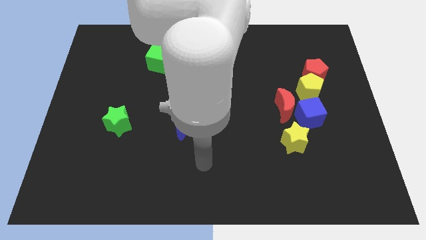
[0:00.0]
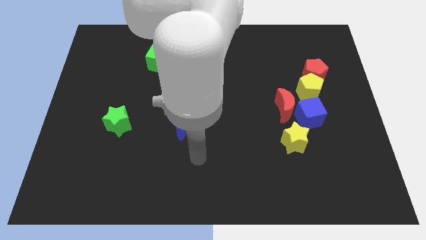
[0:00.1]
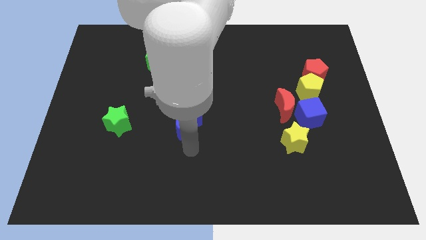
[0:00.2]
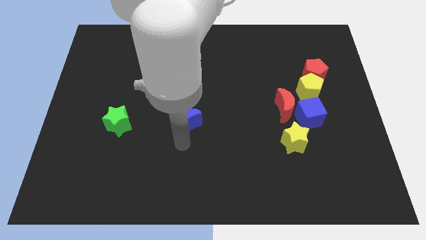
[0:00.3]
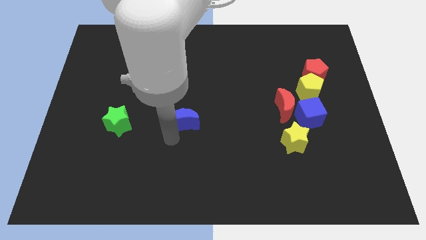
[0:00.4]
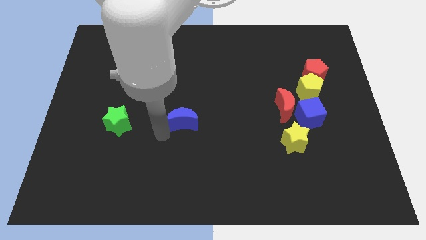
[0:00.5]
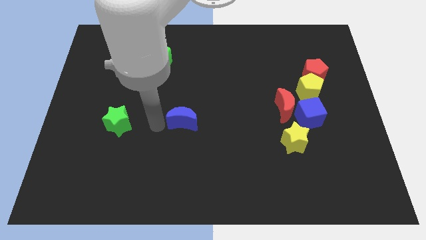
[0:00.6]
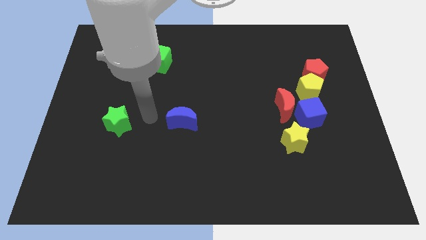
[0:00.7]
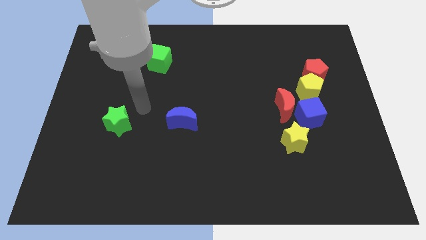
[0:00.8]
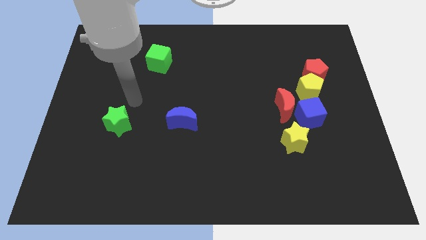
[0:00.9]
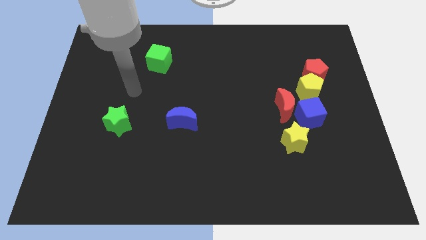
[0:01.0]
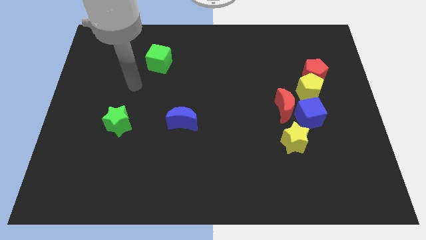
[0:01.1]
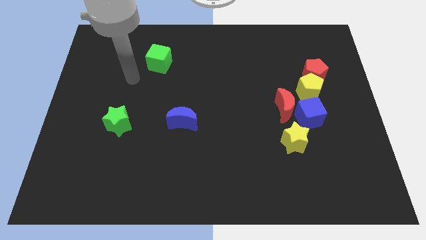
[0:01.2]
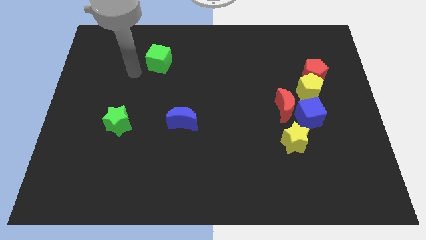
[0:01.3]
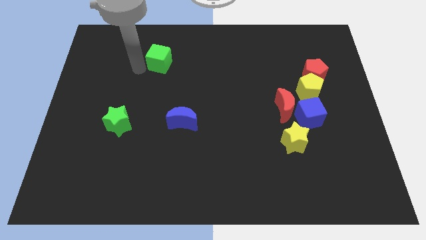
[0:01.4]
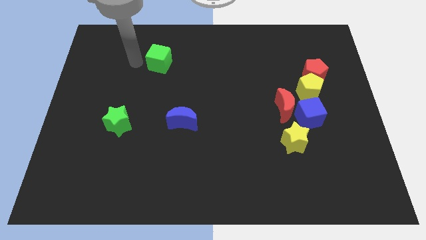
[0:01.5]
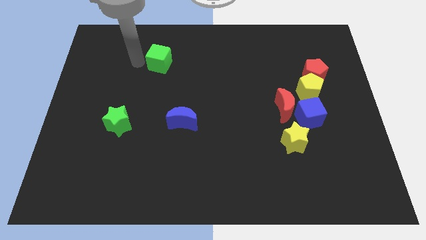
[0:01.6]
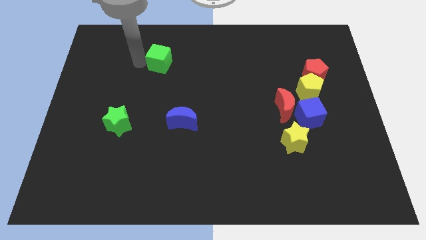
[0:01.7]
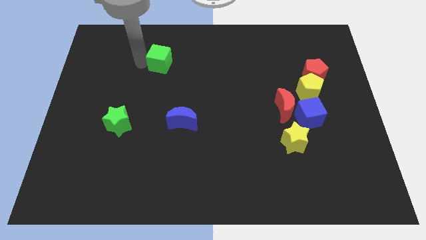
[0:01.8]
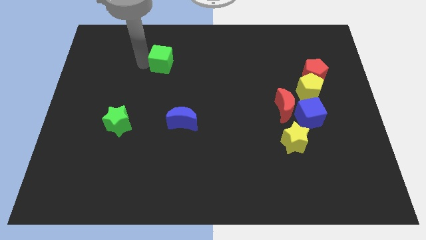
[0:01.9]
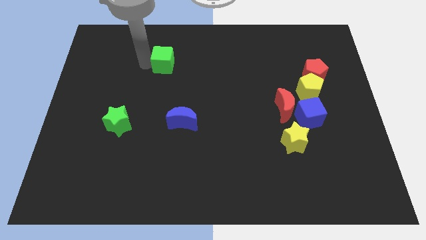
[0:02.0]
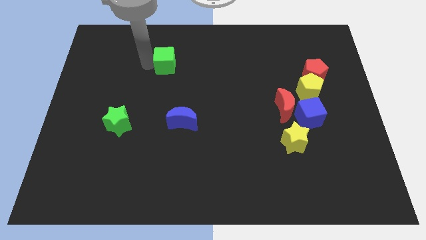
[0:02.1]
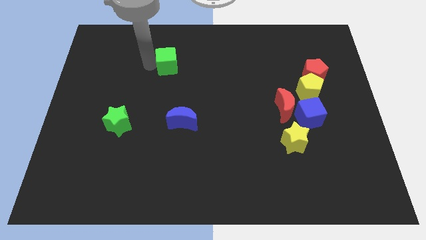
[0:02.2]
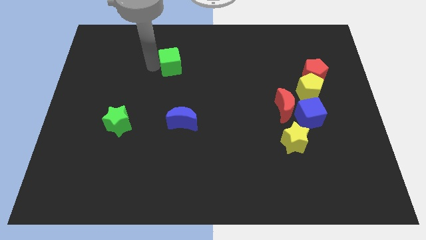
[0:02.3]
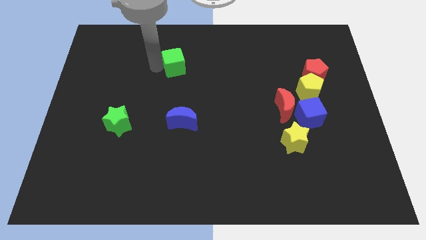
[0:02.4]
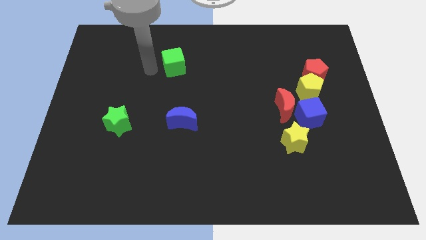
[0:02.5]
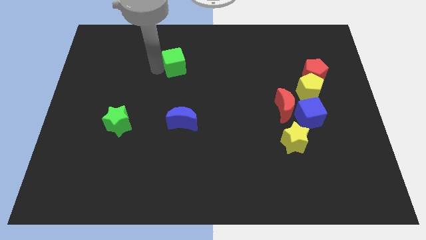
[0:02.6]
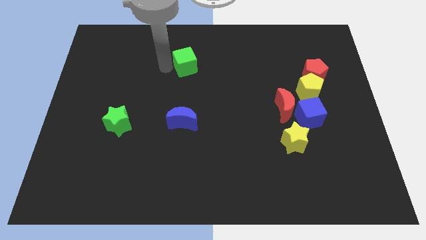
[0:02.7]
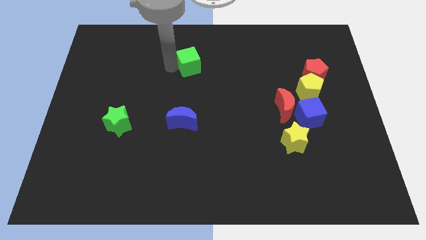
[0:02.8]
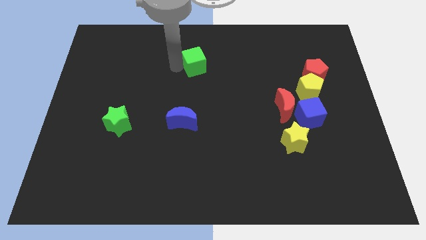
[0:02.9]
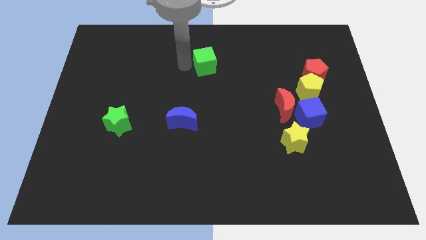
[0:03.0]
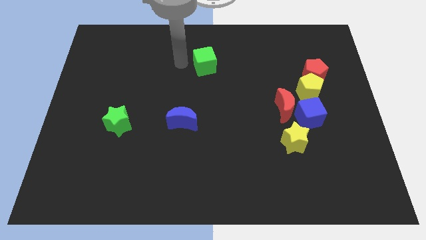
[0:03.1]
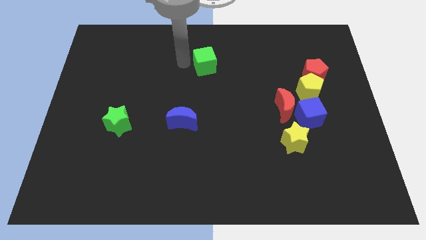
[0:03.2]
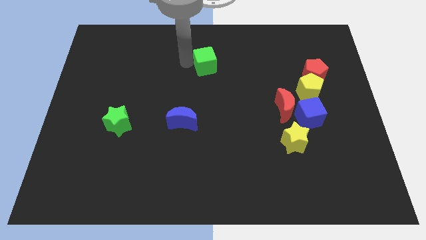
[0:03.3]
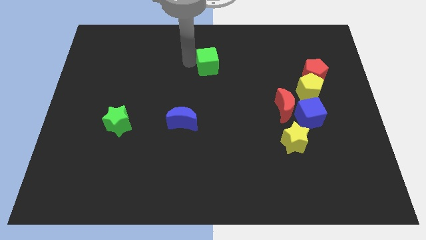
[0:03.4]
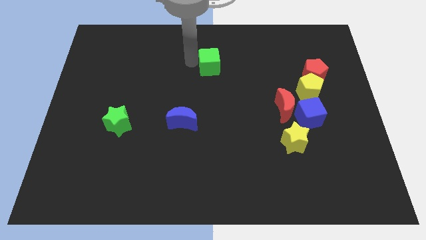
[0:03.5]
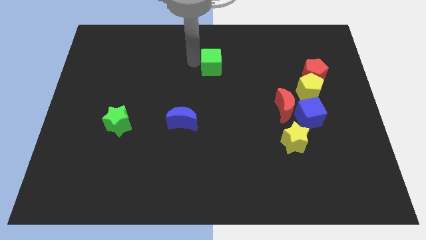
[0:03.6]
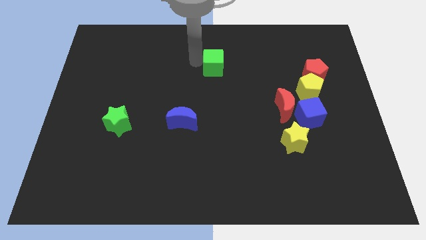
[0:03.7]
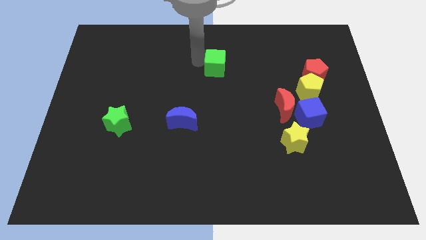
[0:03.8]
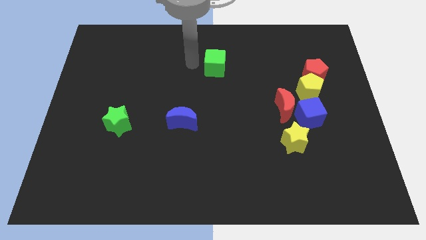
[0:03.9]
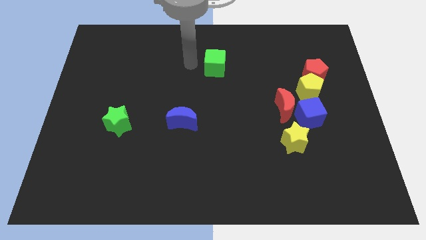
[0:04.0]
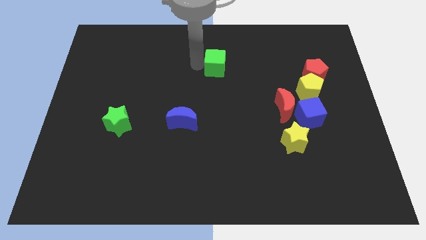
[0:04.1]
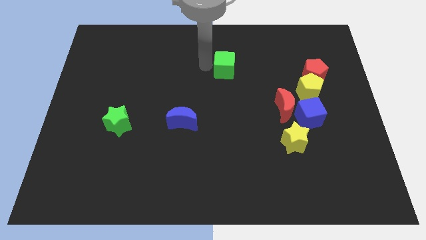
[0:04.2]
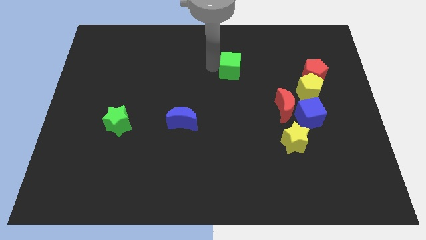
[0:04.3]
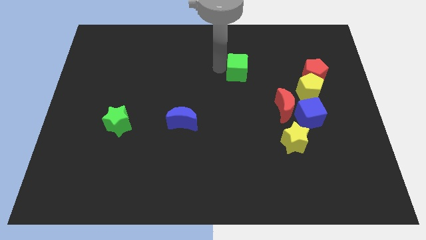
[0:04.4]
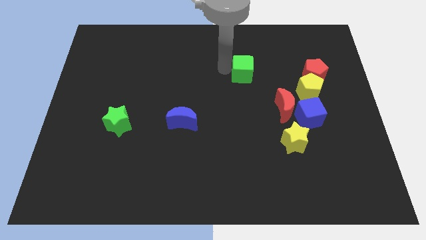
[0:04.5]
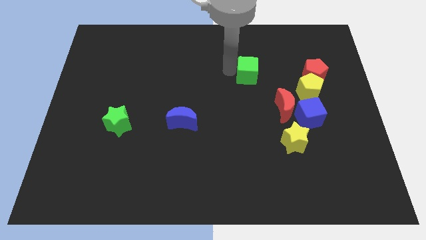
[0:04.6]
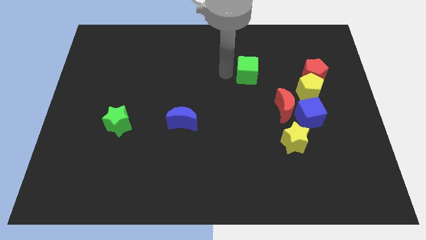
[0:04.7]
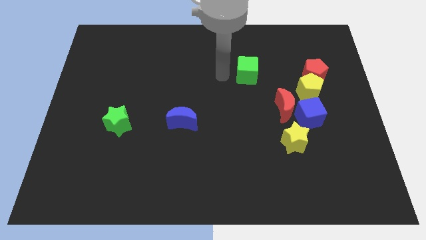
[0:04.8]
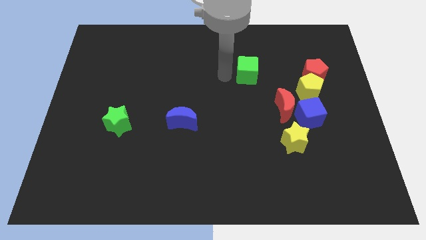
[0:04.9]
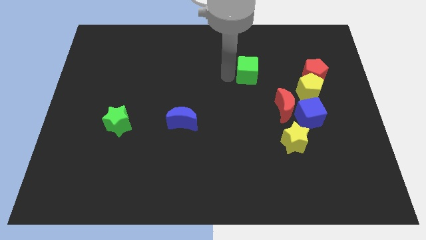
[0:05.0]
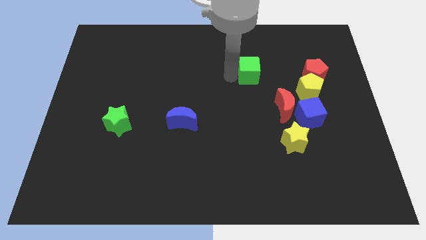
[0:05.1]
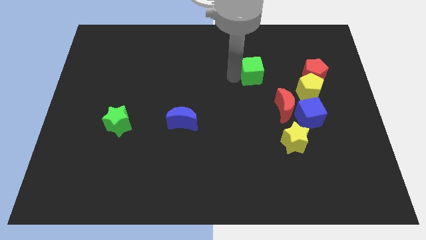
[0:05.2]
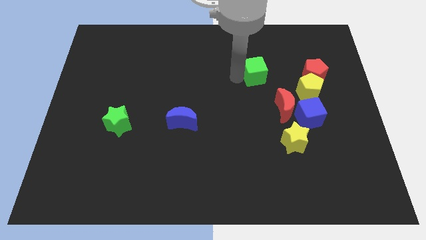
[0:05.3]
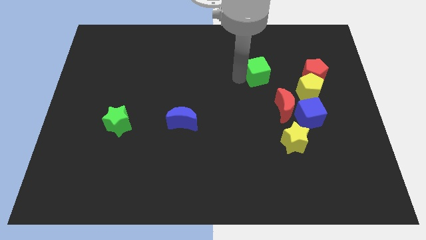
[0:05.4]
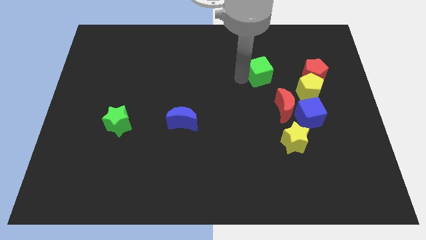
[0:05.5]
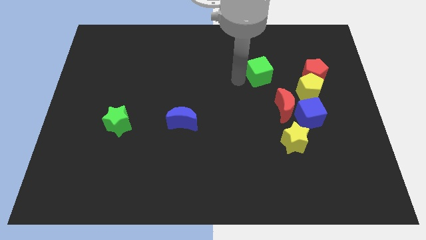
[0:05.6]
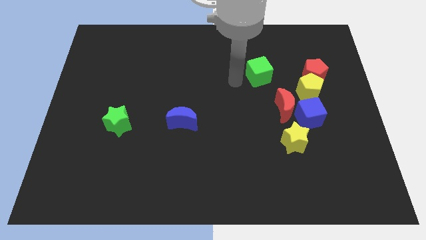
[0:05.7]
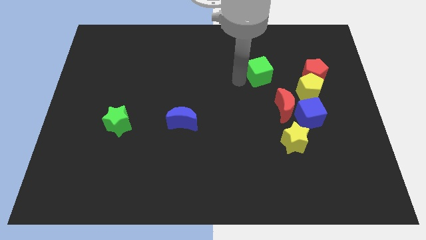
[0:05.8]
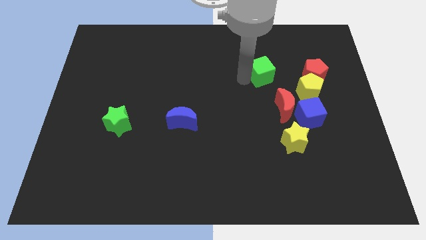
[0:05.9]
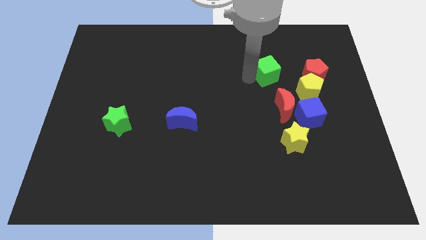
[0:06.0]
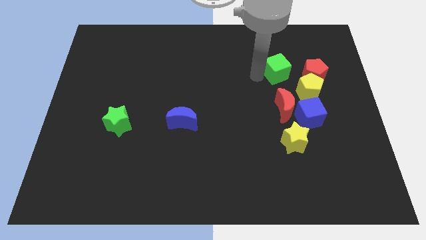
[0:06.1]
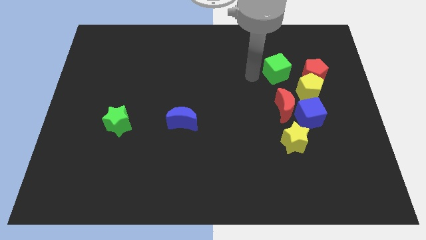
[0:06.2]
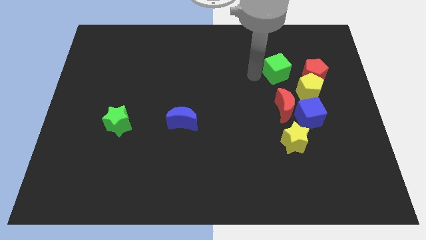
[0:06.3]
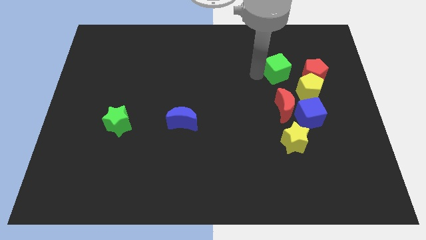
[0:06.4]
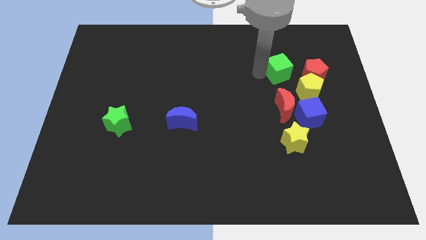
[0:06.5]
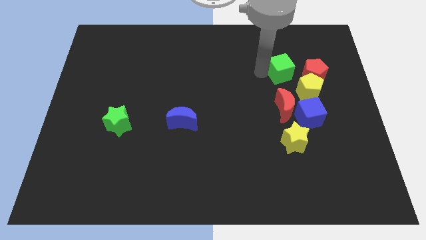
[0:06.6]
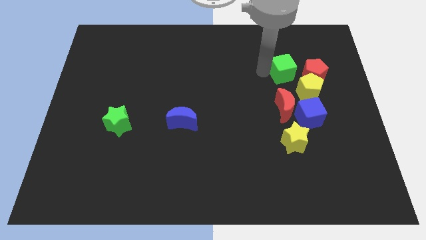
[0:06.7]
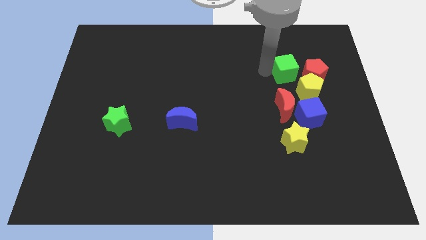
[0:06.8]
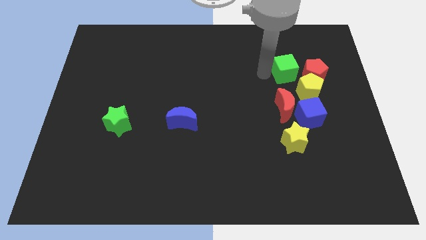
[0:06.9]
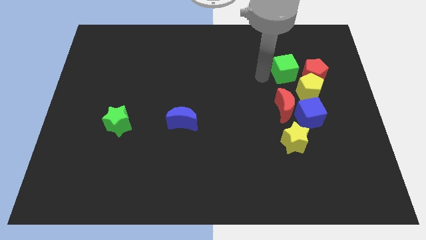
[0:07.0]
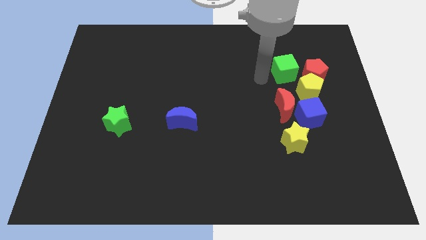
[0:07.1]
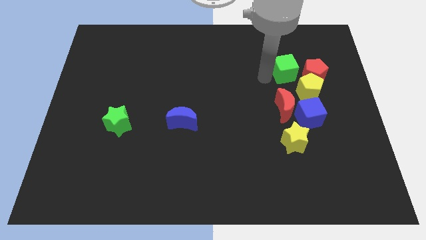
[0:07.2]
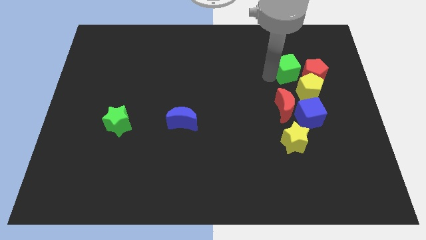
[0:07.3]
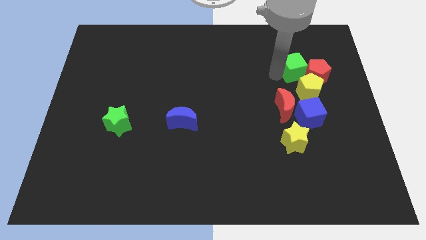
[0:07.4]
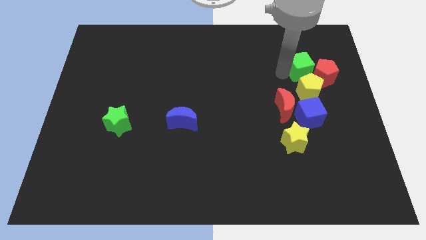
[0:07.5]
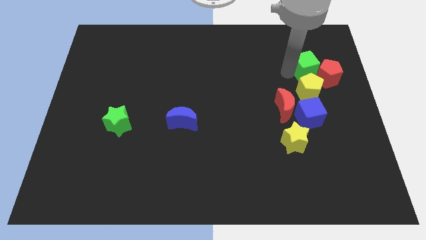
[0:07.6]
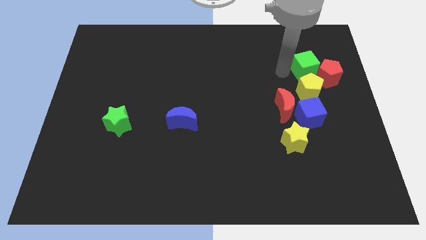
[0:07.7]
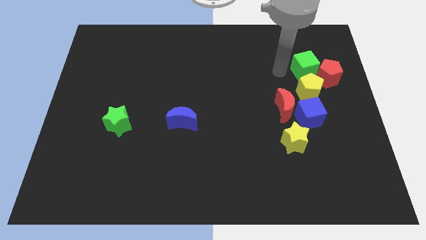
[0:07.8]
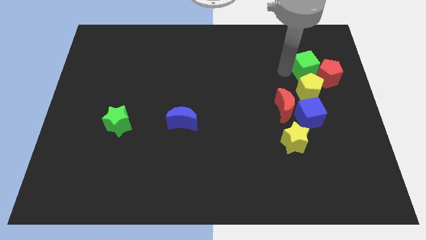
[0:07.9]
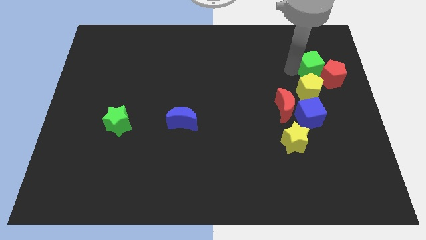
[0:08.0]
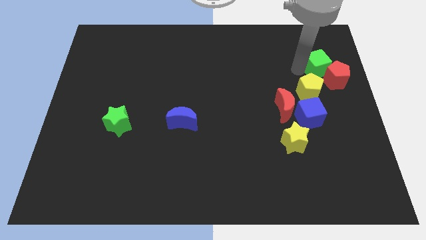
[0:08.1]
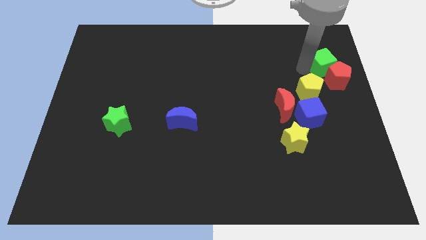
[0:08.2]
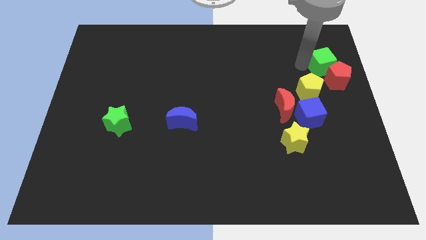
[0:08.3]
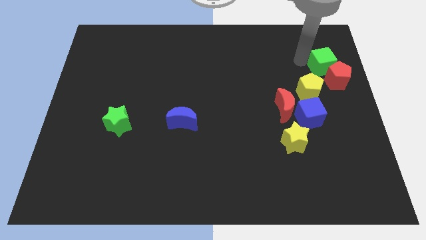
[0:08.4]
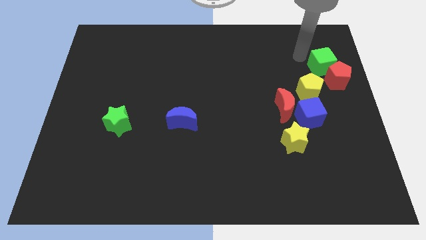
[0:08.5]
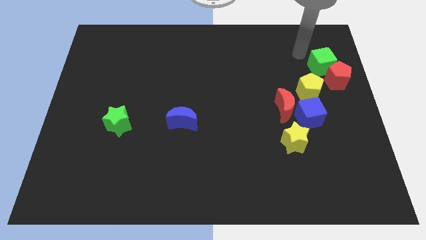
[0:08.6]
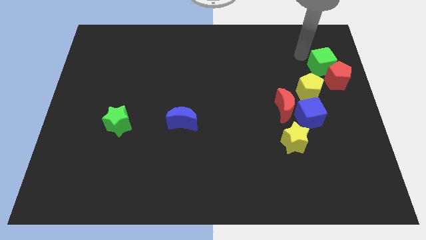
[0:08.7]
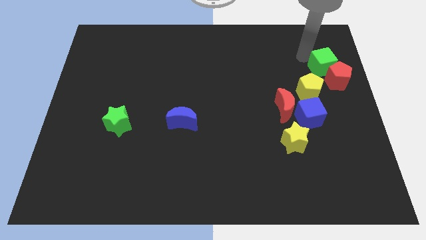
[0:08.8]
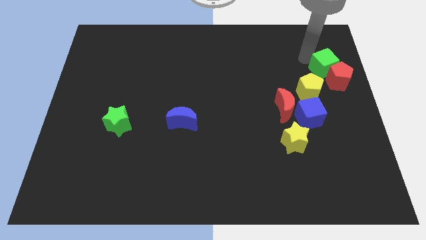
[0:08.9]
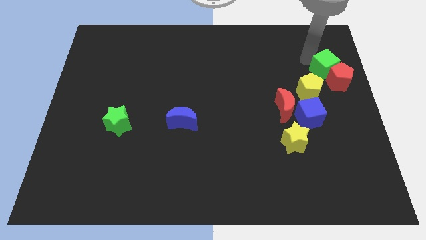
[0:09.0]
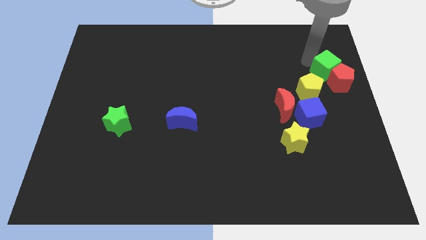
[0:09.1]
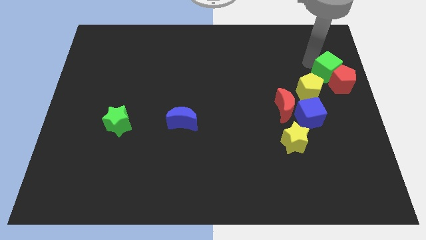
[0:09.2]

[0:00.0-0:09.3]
put the green cube to the center right
